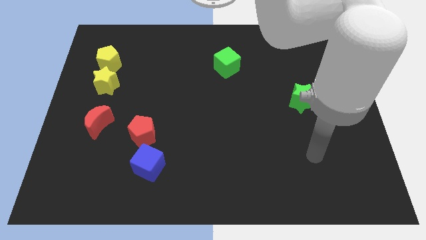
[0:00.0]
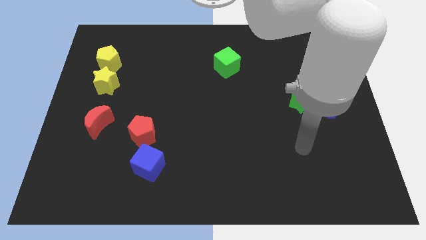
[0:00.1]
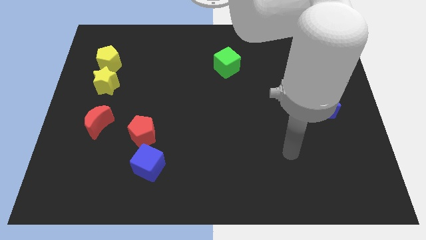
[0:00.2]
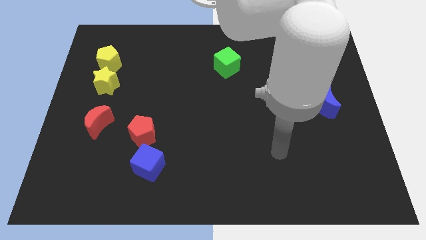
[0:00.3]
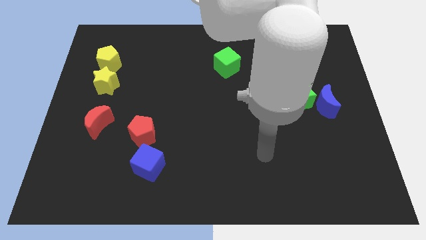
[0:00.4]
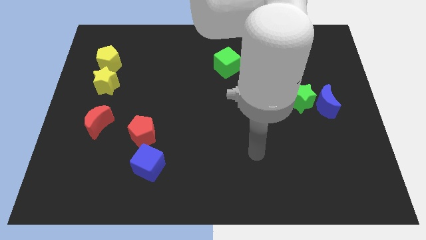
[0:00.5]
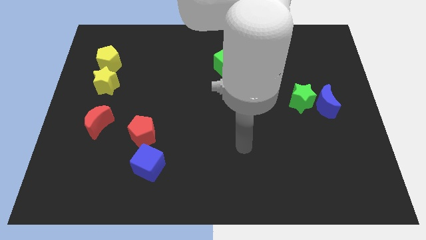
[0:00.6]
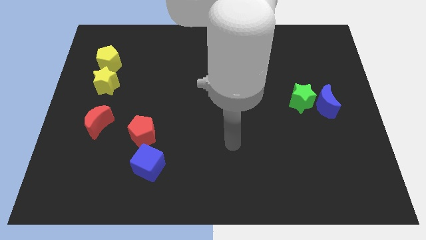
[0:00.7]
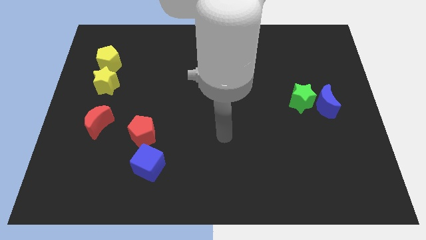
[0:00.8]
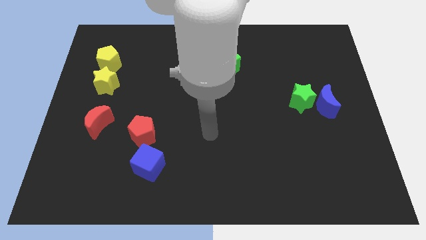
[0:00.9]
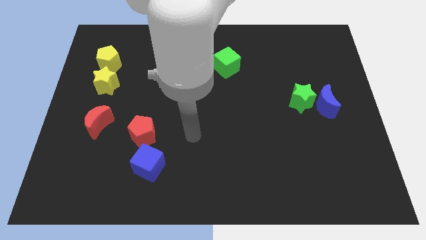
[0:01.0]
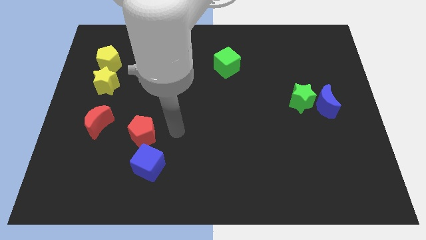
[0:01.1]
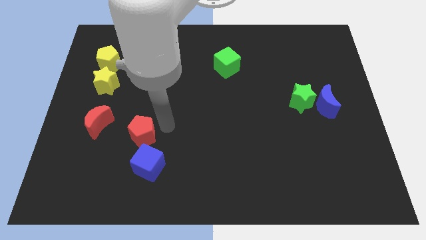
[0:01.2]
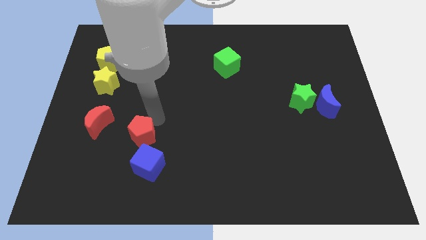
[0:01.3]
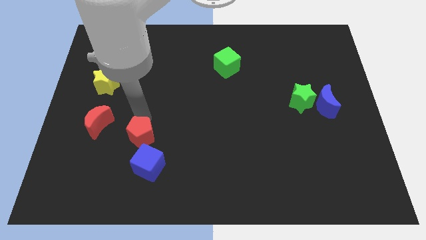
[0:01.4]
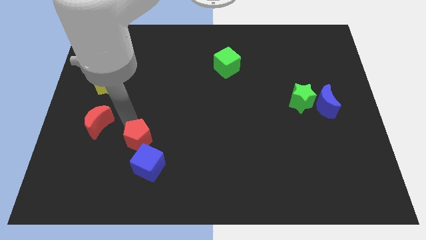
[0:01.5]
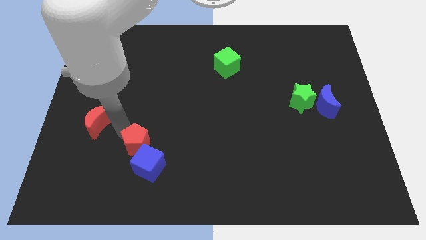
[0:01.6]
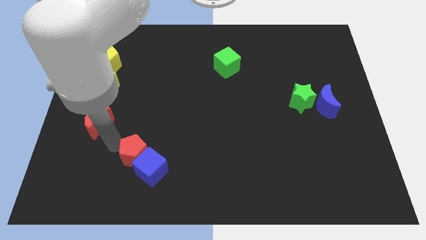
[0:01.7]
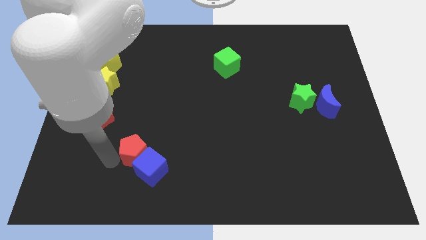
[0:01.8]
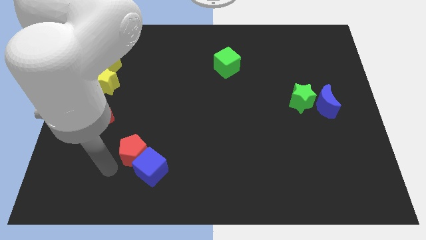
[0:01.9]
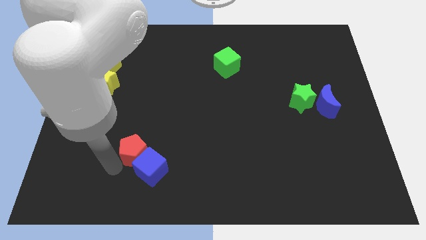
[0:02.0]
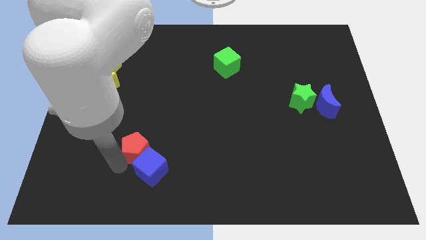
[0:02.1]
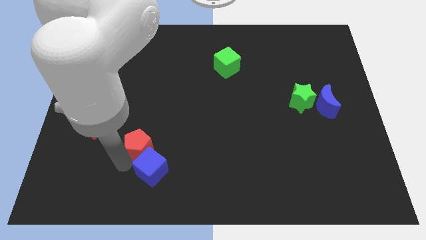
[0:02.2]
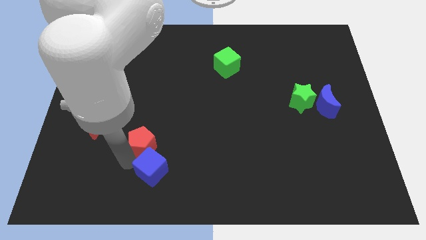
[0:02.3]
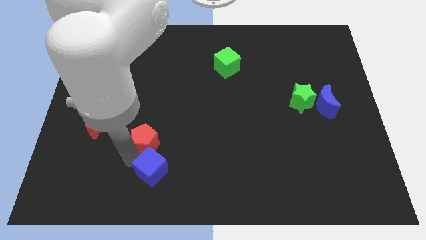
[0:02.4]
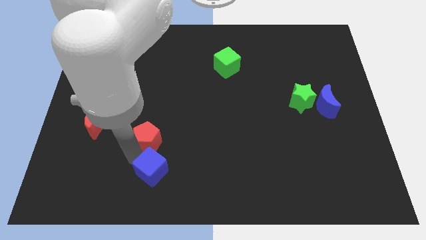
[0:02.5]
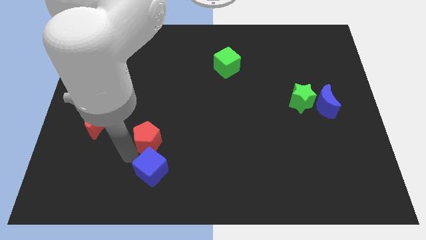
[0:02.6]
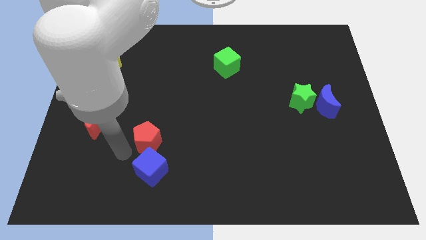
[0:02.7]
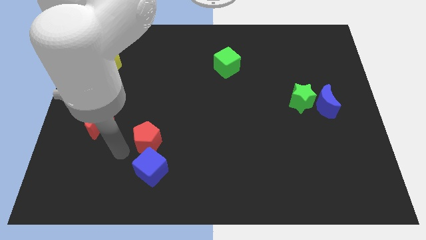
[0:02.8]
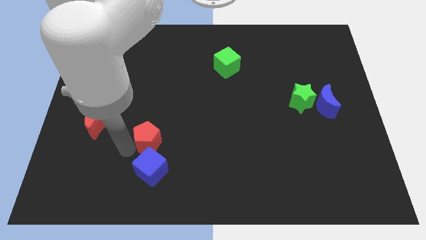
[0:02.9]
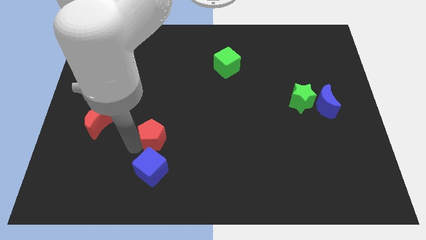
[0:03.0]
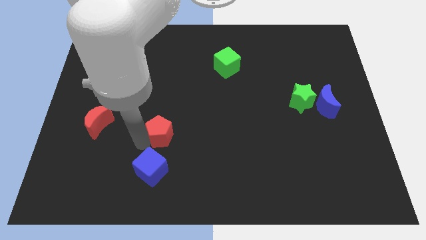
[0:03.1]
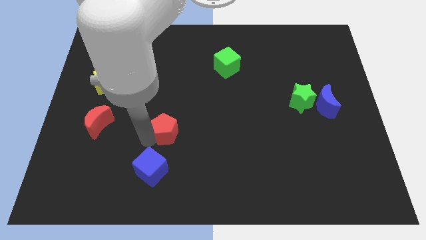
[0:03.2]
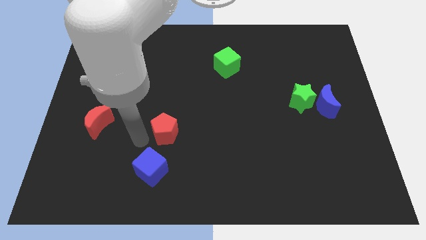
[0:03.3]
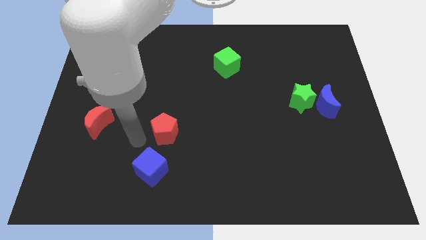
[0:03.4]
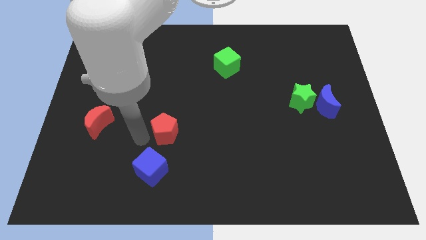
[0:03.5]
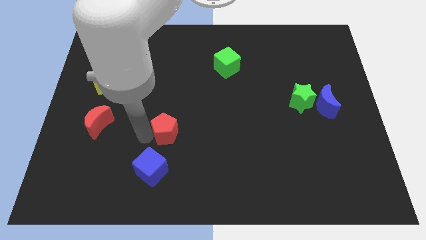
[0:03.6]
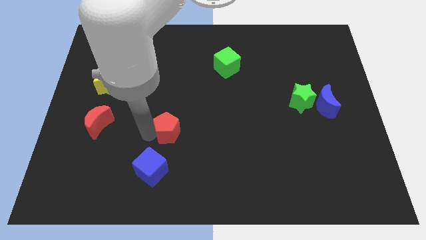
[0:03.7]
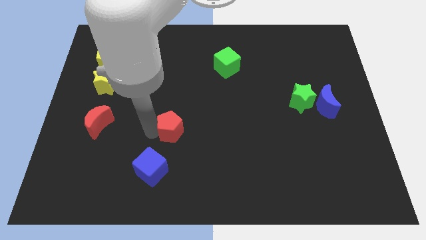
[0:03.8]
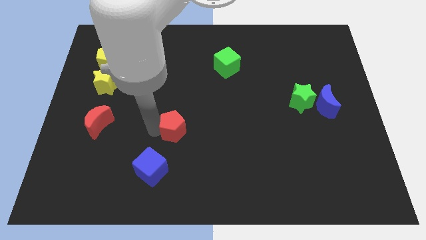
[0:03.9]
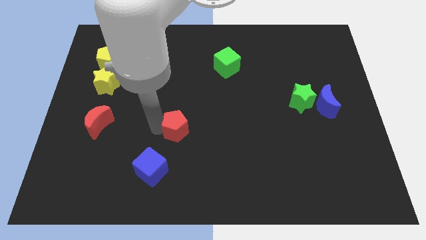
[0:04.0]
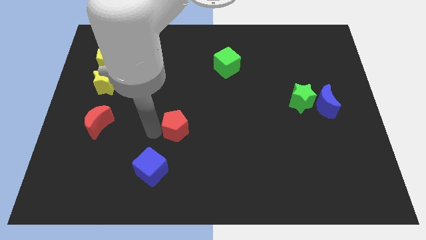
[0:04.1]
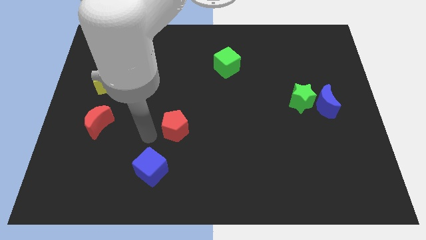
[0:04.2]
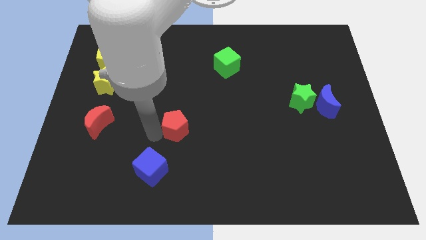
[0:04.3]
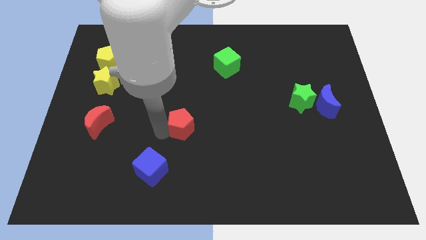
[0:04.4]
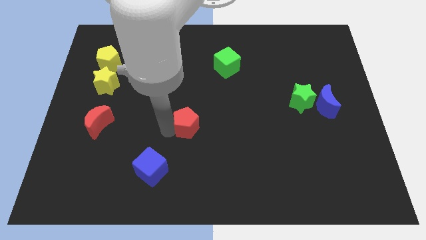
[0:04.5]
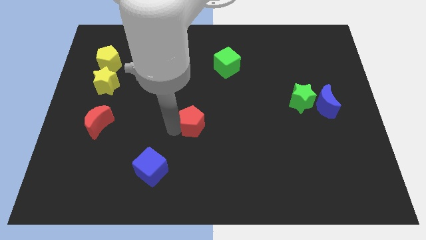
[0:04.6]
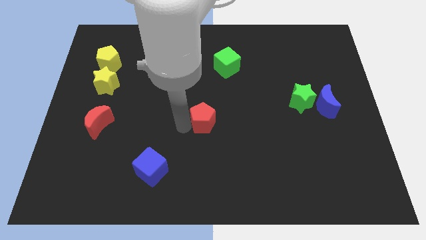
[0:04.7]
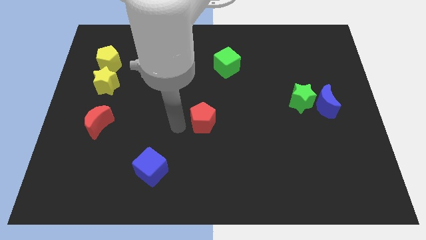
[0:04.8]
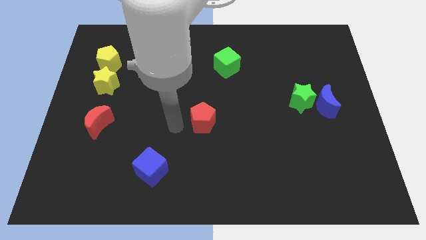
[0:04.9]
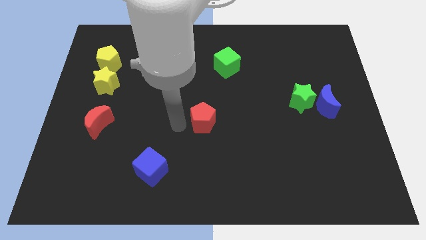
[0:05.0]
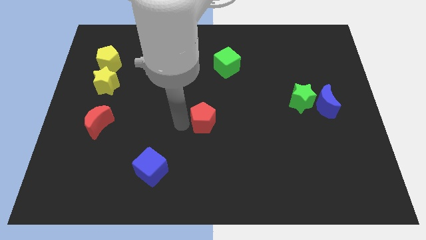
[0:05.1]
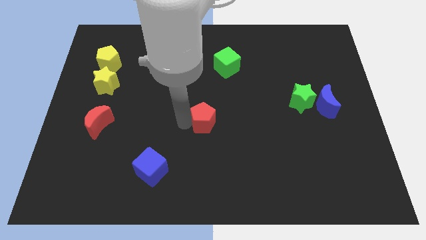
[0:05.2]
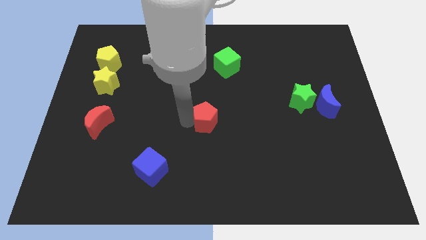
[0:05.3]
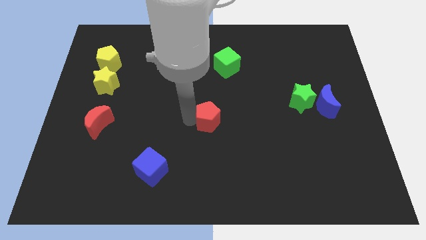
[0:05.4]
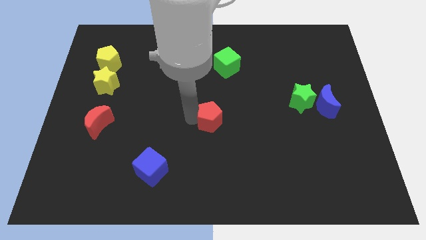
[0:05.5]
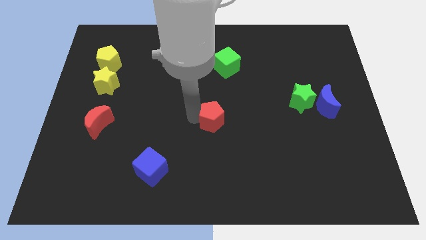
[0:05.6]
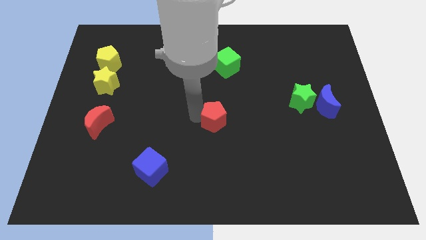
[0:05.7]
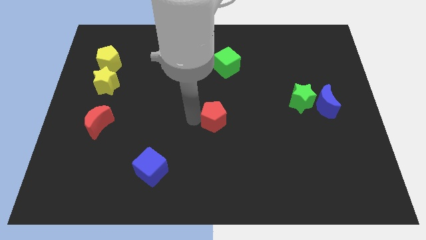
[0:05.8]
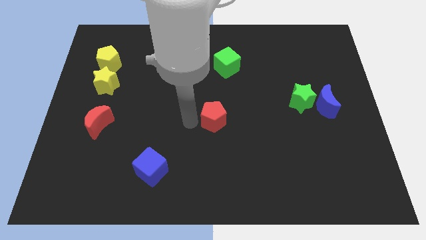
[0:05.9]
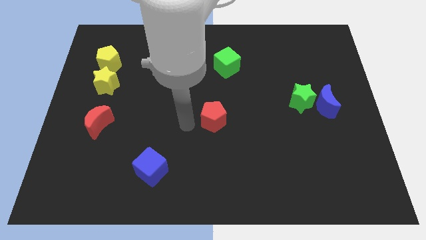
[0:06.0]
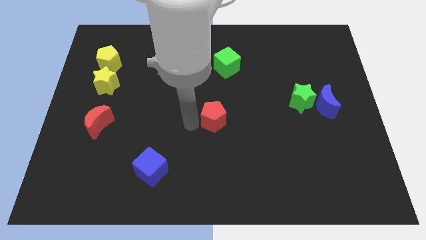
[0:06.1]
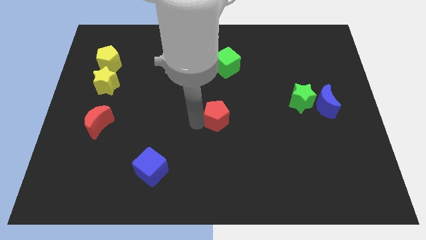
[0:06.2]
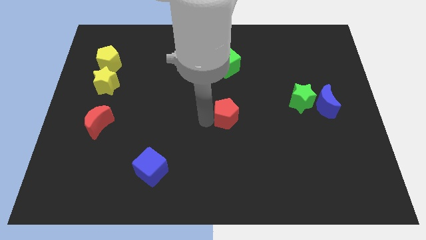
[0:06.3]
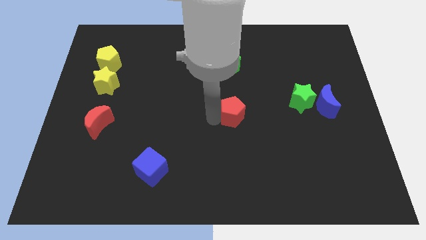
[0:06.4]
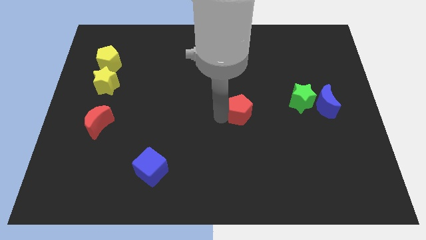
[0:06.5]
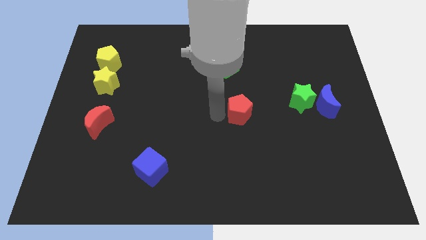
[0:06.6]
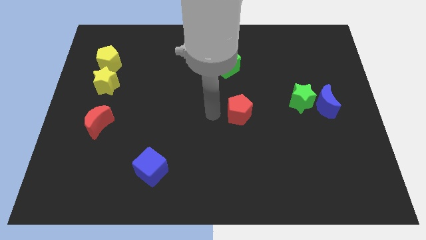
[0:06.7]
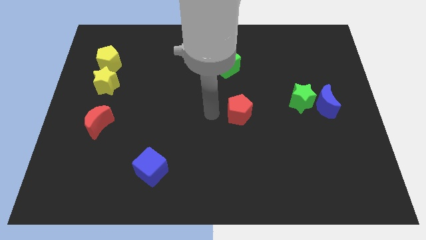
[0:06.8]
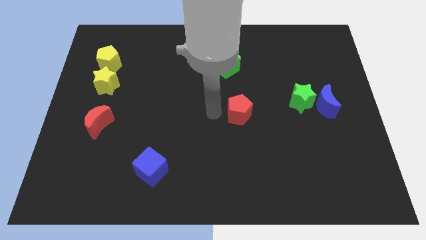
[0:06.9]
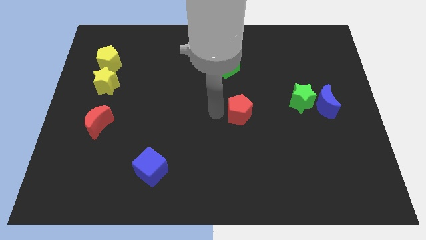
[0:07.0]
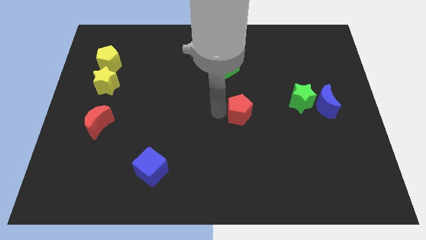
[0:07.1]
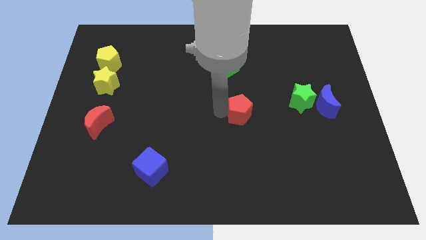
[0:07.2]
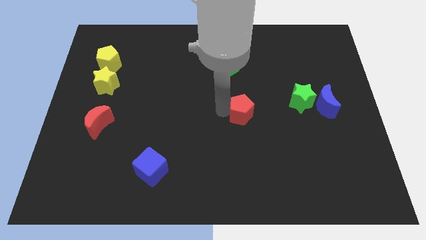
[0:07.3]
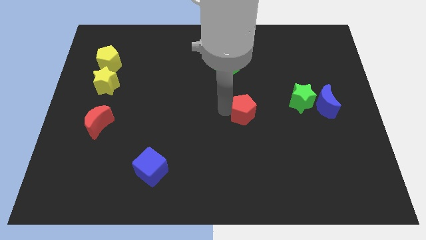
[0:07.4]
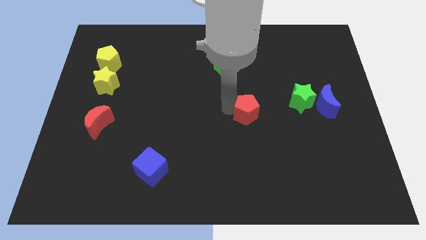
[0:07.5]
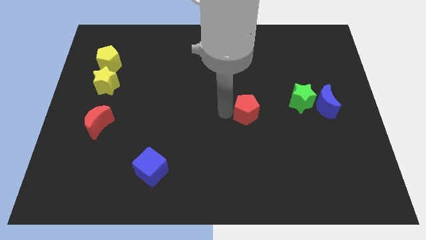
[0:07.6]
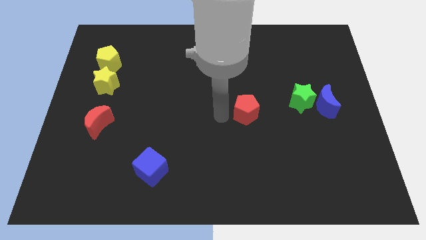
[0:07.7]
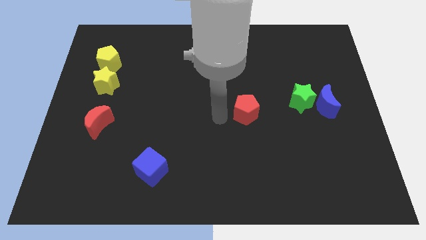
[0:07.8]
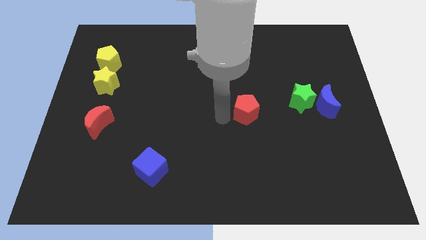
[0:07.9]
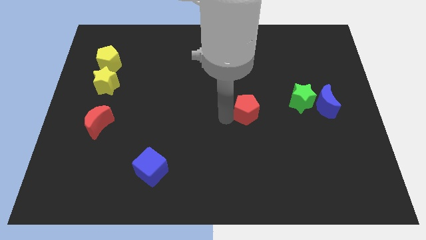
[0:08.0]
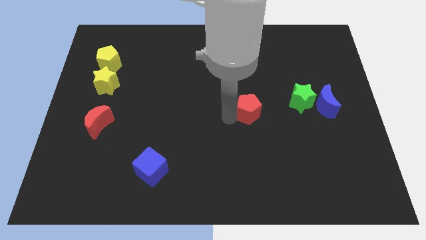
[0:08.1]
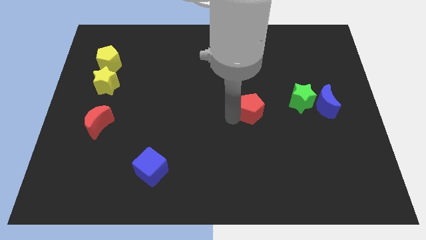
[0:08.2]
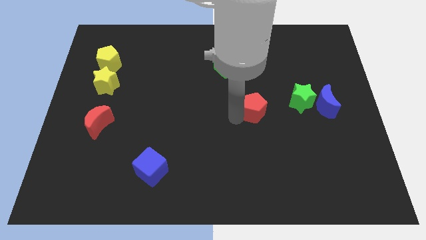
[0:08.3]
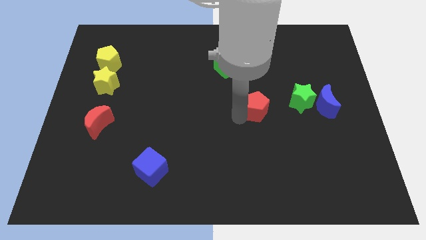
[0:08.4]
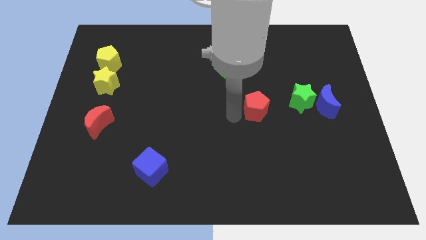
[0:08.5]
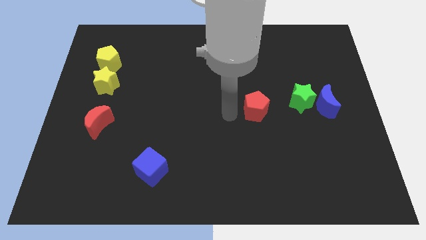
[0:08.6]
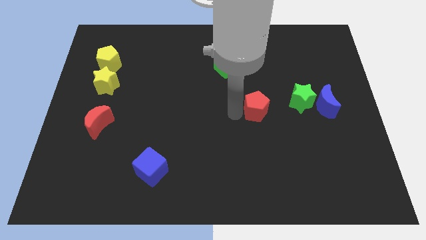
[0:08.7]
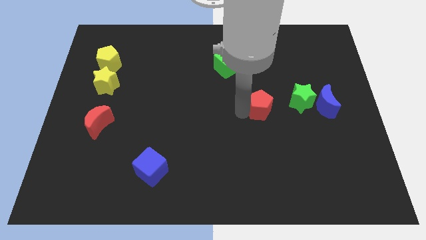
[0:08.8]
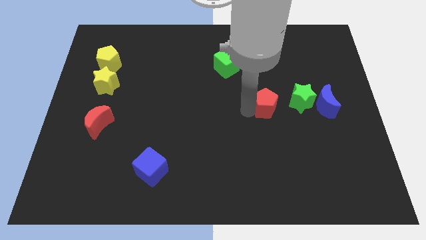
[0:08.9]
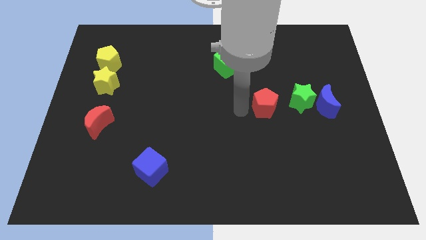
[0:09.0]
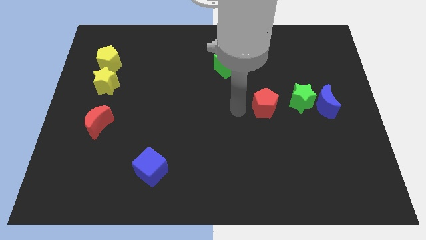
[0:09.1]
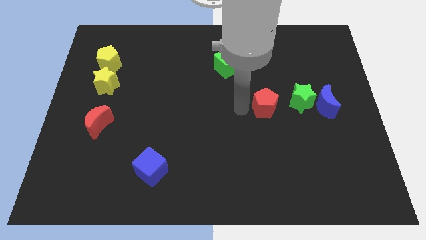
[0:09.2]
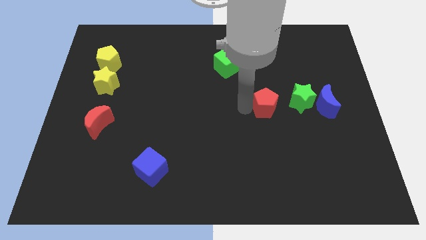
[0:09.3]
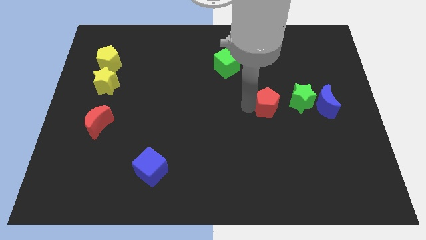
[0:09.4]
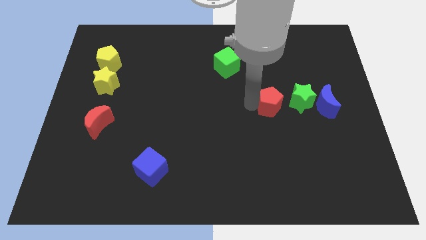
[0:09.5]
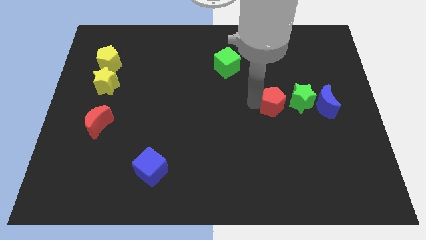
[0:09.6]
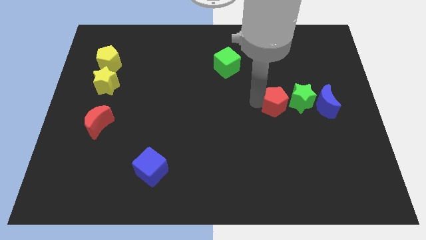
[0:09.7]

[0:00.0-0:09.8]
move the red pentagon to the green star
